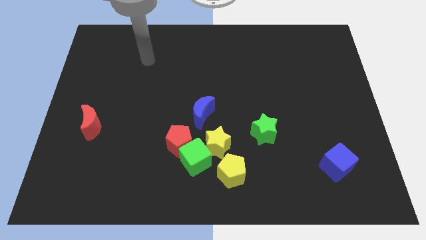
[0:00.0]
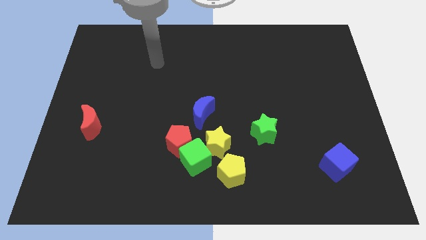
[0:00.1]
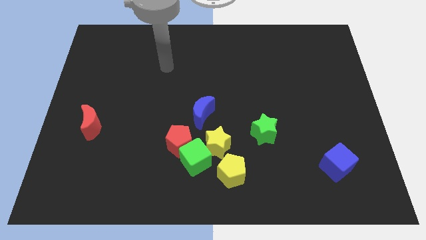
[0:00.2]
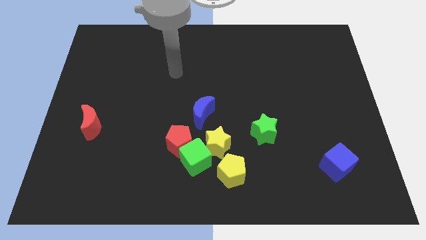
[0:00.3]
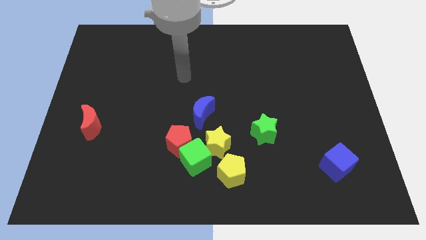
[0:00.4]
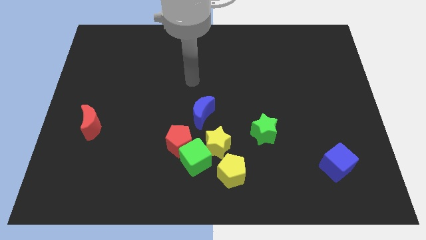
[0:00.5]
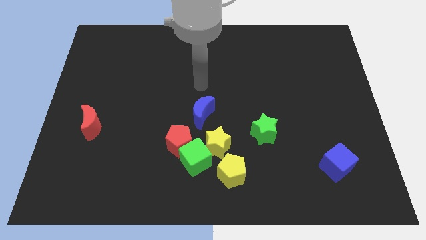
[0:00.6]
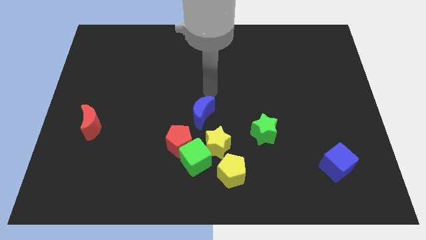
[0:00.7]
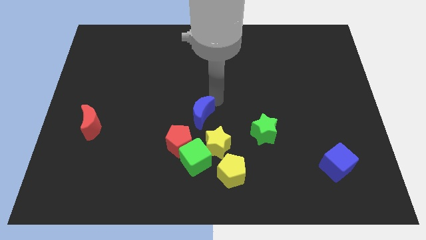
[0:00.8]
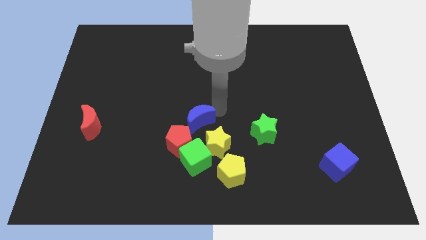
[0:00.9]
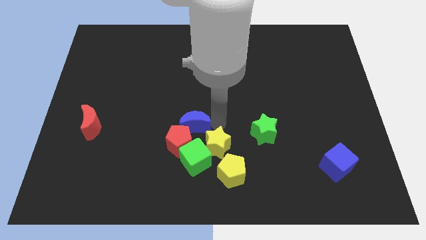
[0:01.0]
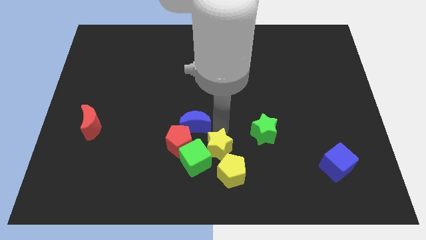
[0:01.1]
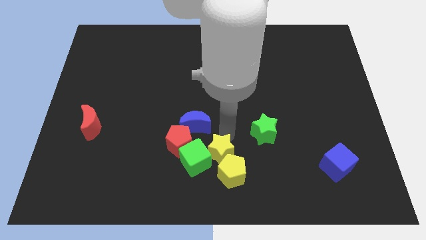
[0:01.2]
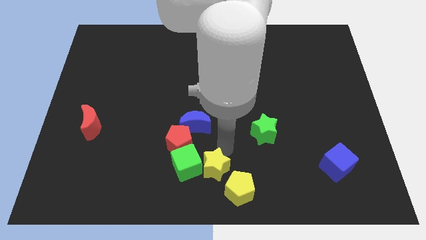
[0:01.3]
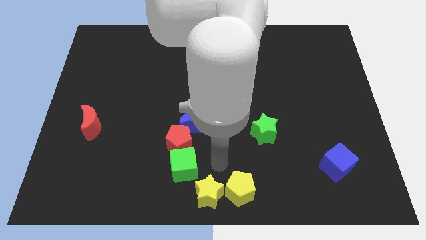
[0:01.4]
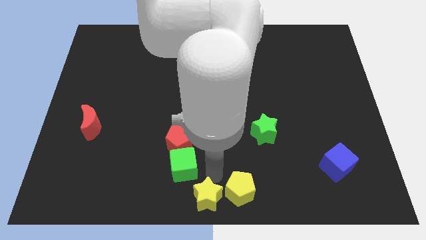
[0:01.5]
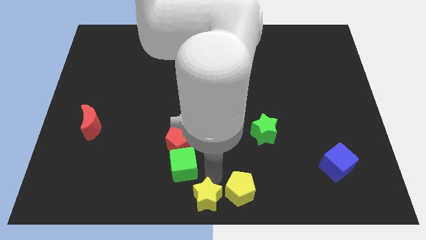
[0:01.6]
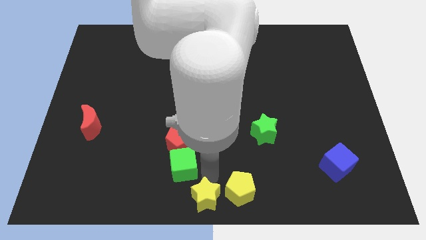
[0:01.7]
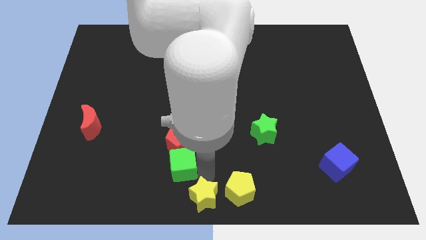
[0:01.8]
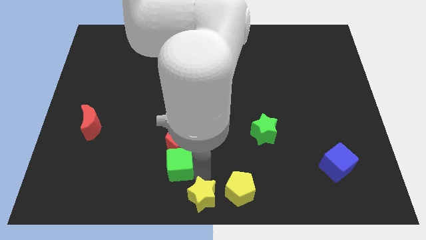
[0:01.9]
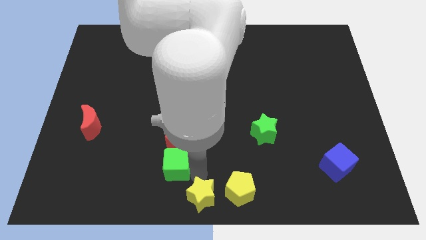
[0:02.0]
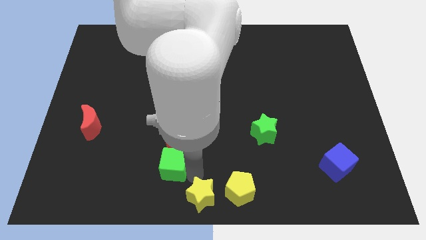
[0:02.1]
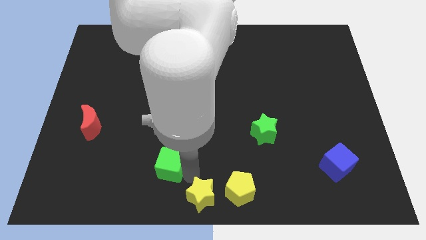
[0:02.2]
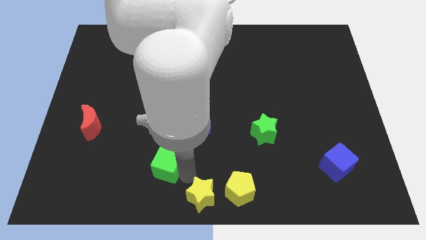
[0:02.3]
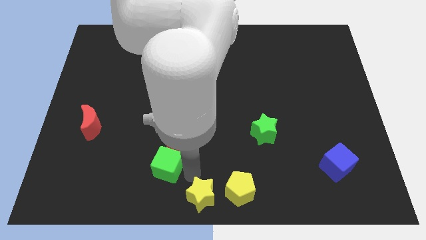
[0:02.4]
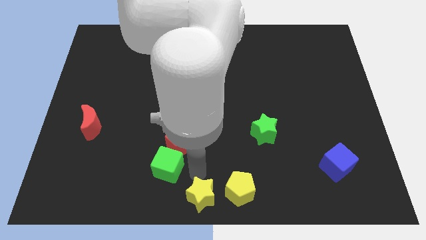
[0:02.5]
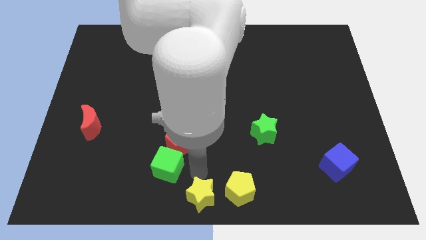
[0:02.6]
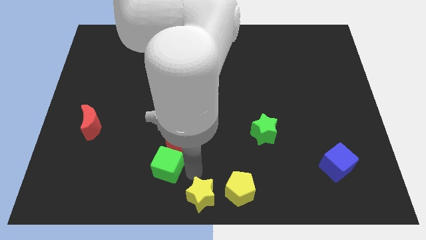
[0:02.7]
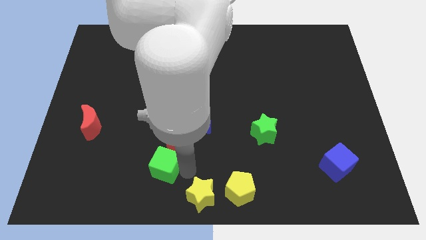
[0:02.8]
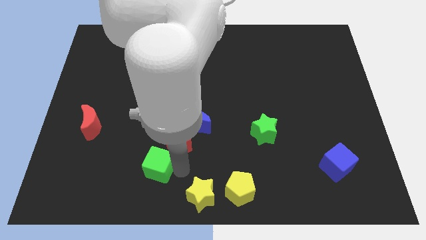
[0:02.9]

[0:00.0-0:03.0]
pull the green cube apart from the group of blocks

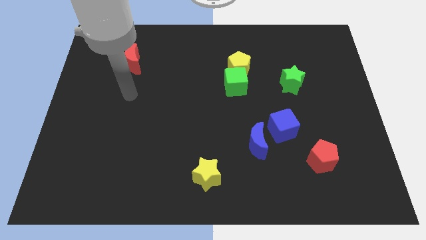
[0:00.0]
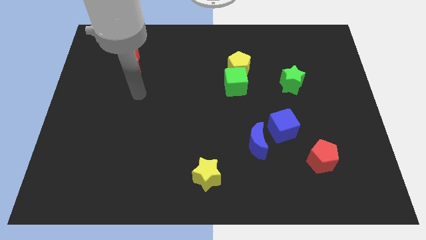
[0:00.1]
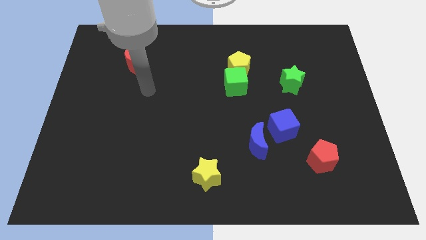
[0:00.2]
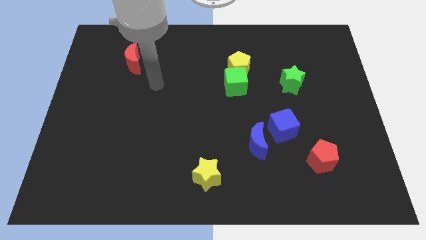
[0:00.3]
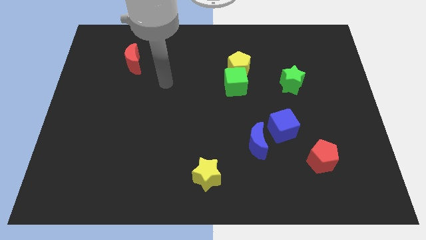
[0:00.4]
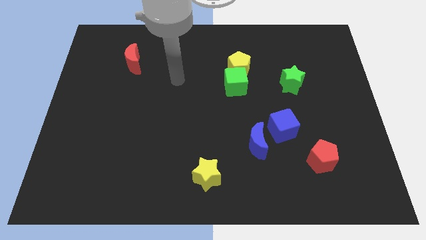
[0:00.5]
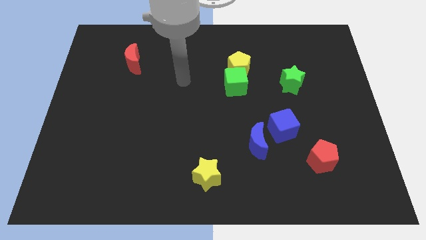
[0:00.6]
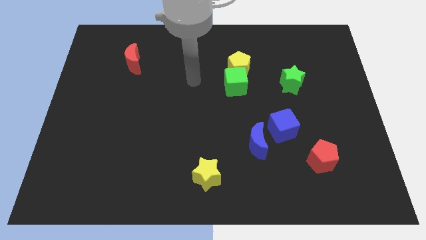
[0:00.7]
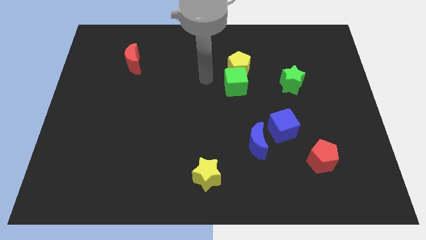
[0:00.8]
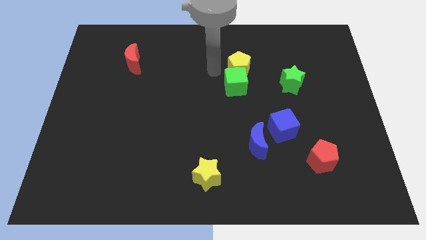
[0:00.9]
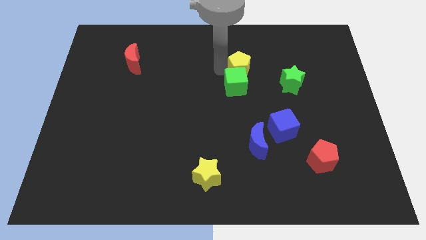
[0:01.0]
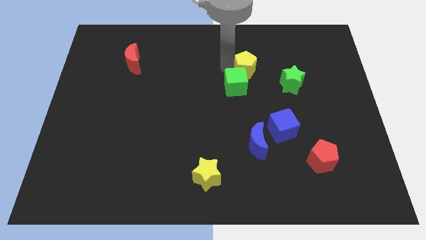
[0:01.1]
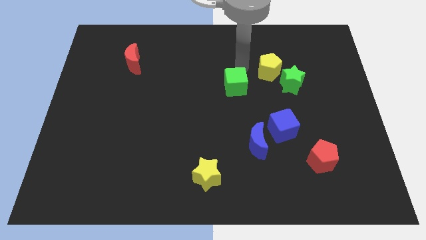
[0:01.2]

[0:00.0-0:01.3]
separate the green cube from the yellow pentagon

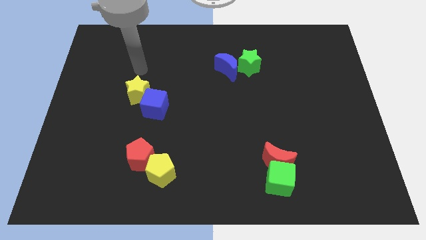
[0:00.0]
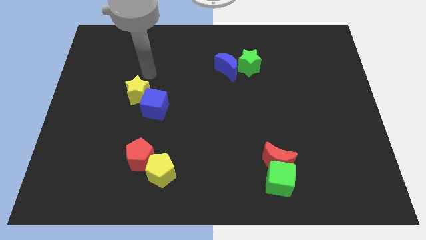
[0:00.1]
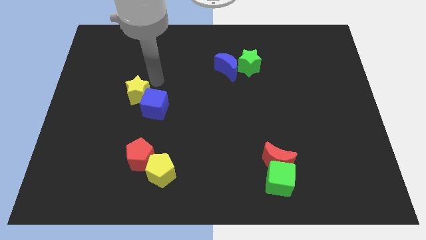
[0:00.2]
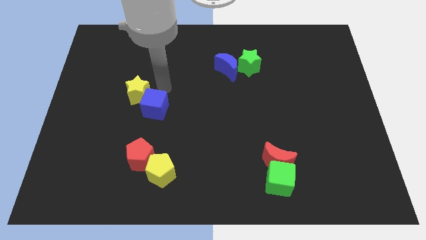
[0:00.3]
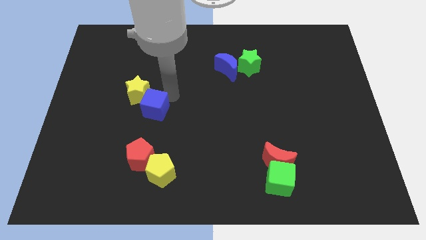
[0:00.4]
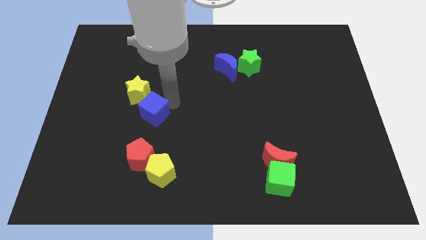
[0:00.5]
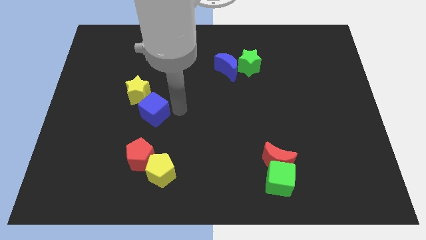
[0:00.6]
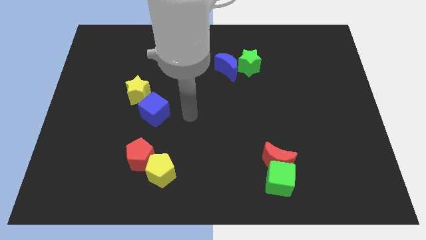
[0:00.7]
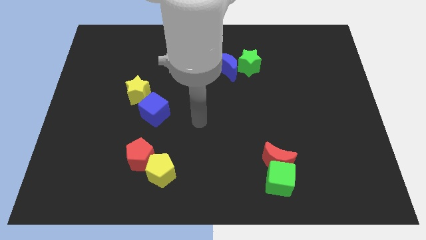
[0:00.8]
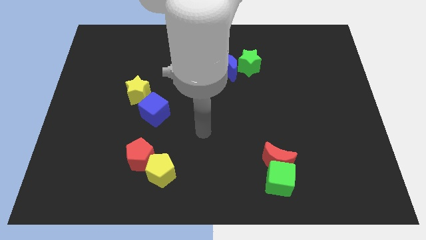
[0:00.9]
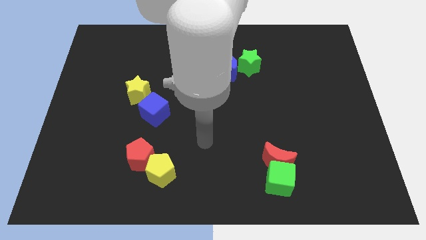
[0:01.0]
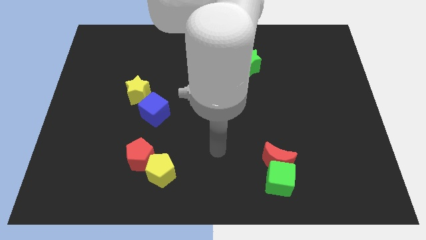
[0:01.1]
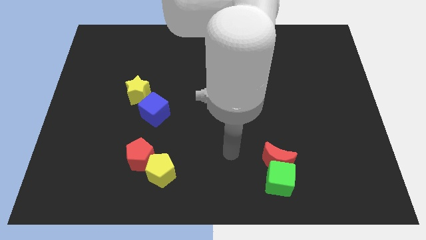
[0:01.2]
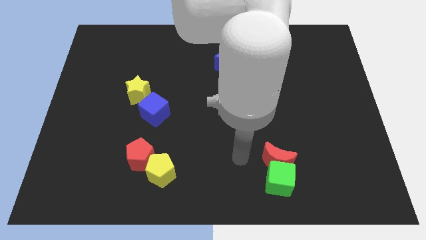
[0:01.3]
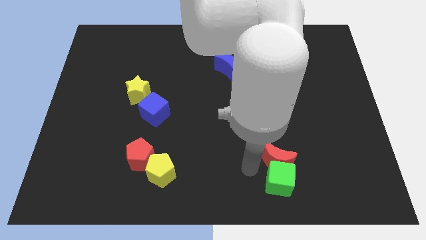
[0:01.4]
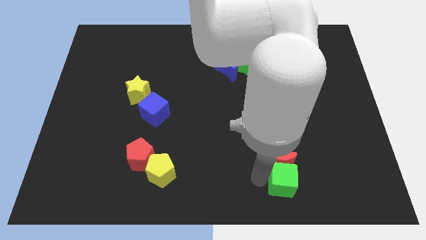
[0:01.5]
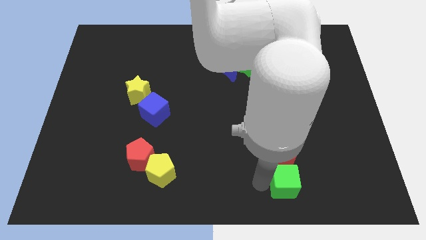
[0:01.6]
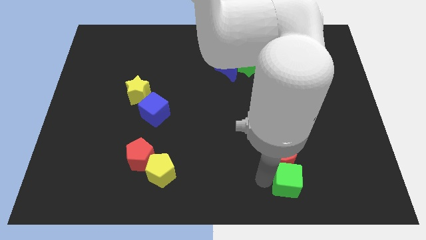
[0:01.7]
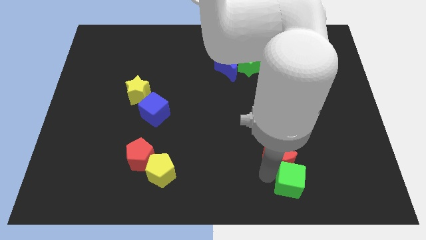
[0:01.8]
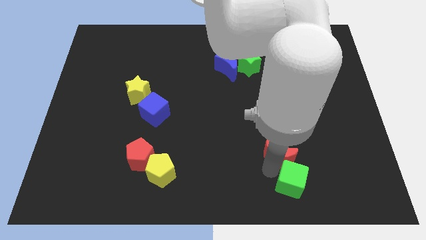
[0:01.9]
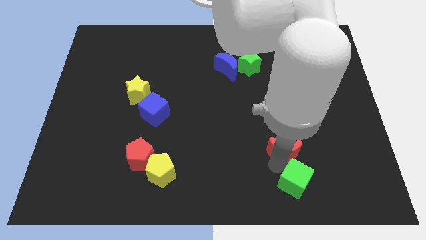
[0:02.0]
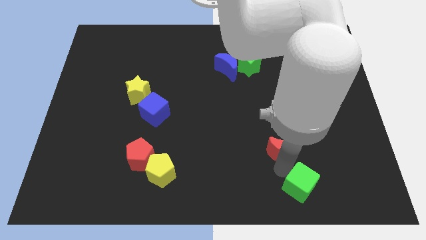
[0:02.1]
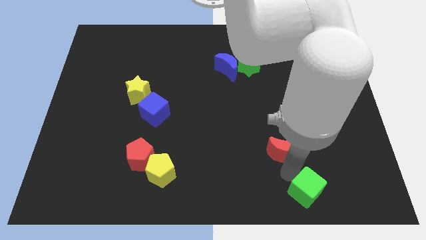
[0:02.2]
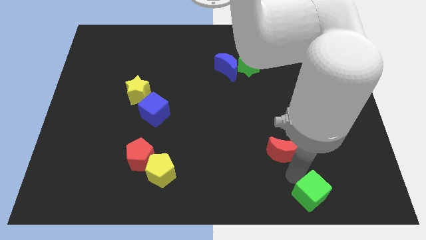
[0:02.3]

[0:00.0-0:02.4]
move the red moon away from the green cube

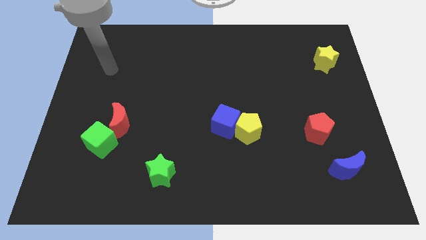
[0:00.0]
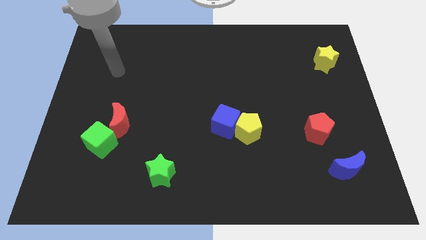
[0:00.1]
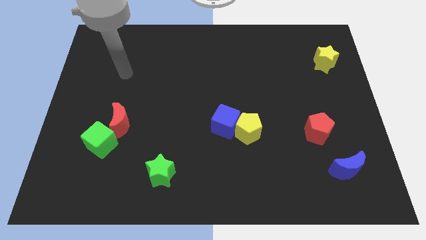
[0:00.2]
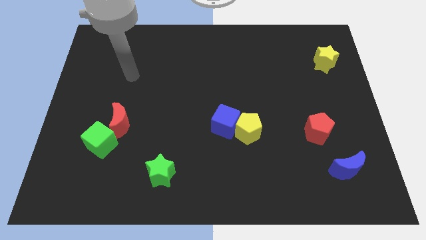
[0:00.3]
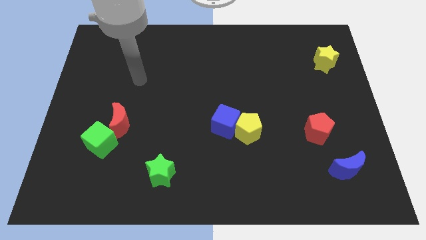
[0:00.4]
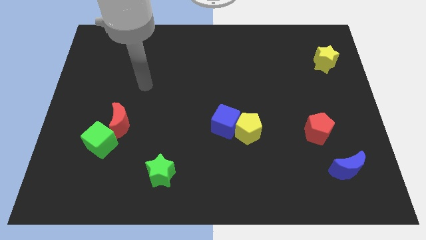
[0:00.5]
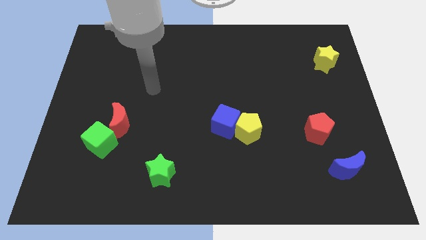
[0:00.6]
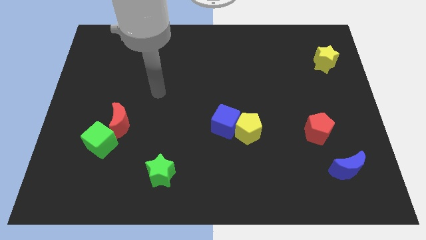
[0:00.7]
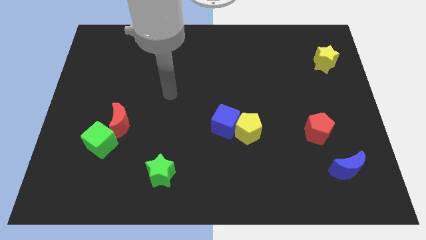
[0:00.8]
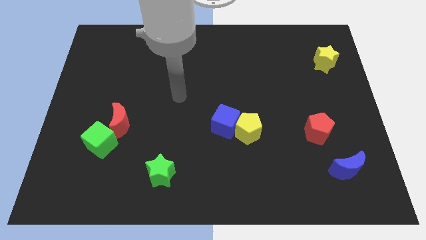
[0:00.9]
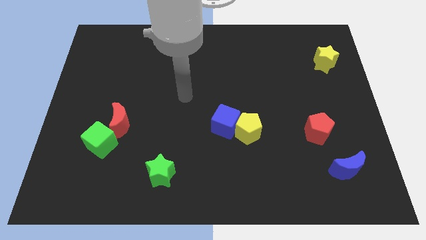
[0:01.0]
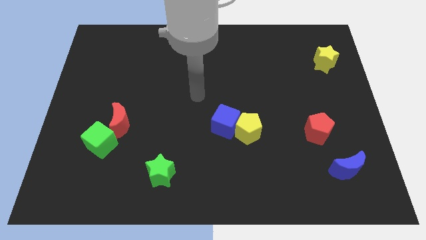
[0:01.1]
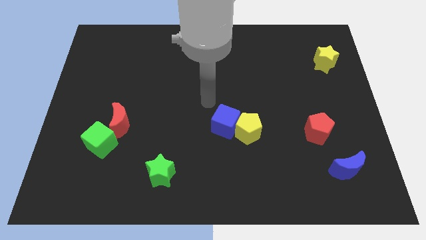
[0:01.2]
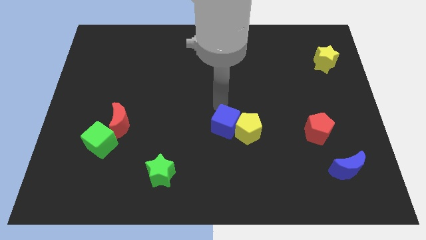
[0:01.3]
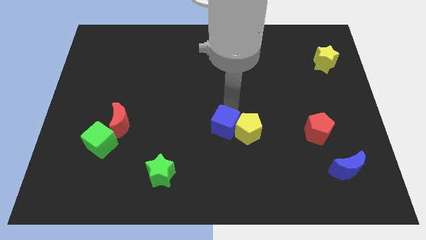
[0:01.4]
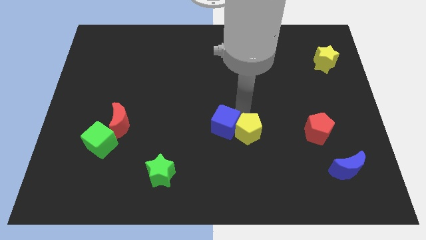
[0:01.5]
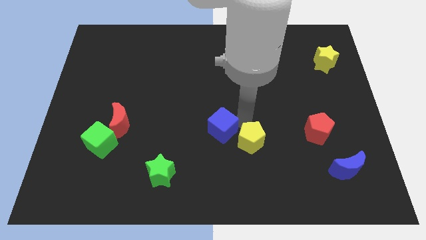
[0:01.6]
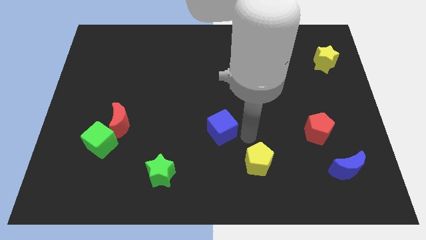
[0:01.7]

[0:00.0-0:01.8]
pull the blue cube apart from the yellow pentagon

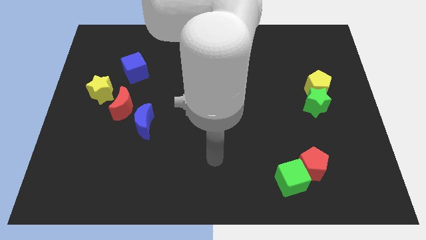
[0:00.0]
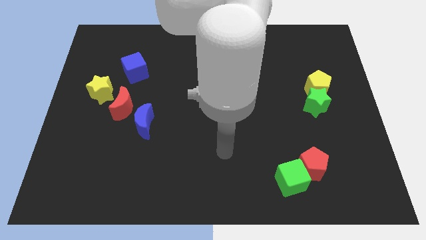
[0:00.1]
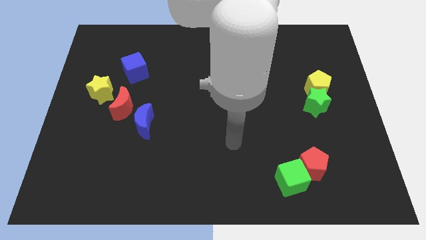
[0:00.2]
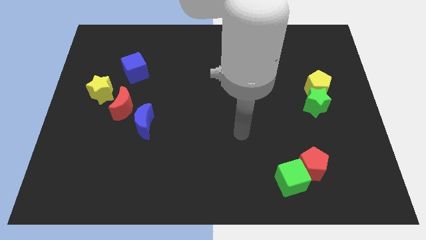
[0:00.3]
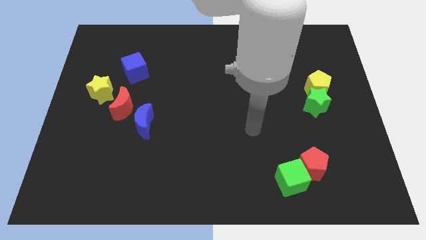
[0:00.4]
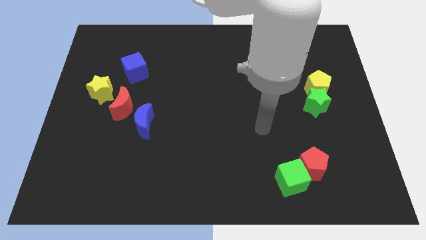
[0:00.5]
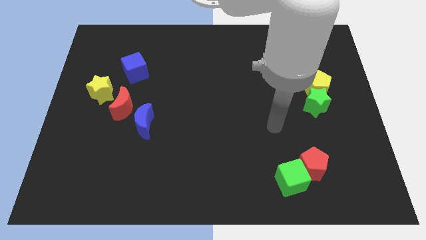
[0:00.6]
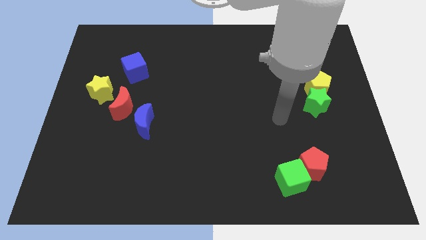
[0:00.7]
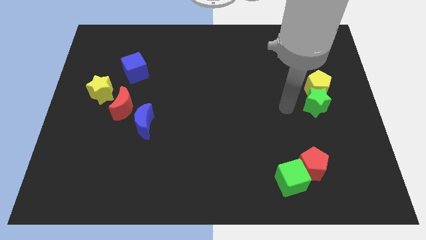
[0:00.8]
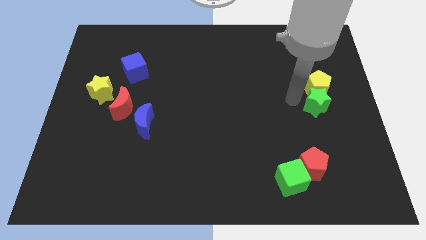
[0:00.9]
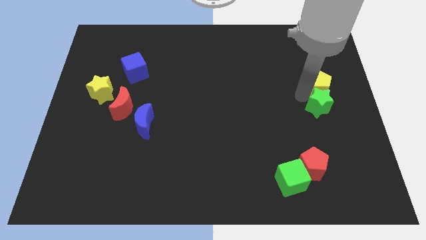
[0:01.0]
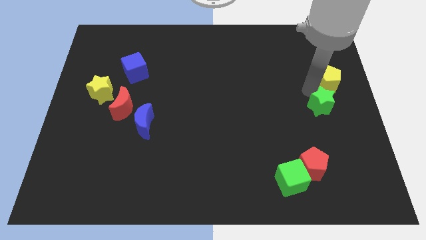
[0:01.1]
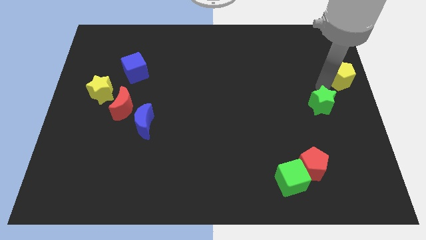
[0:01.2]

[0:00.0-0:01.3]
pull the green star apart from the yellow pentagon
